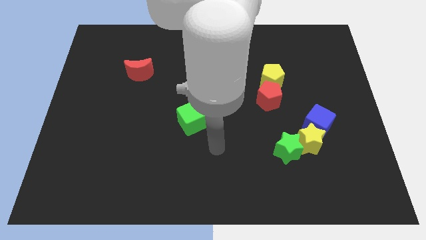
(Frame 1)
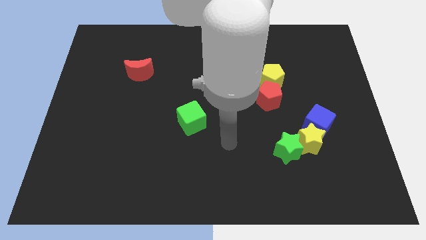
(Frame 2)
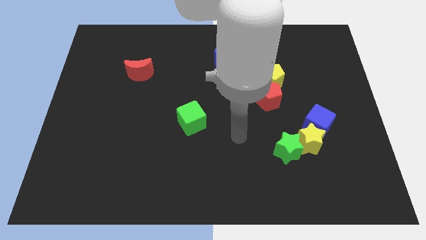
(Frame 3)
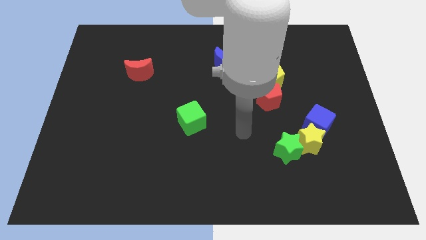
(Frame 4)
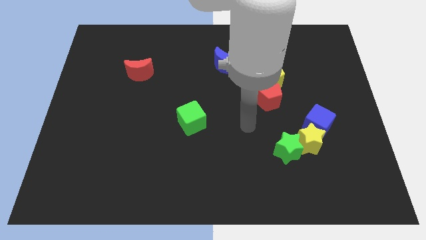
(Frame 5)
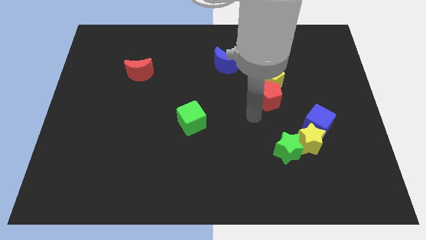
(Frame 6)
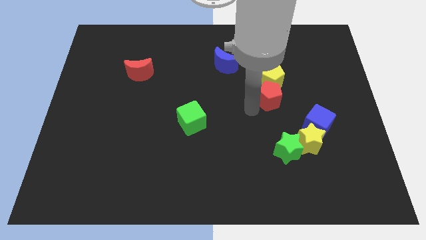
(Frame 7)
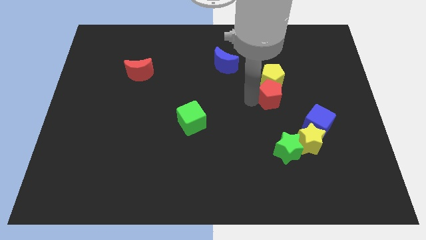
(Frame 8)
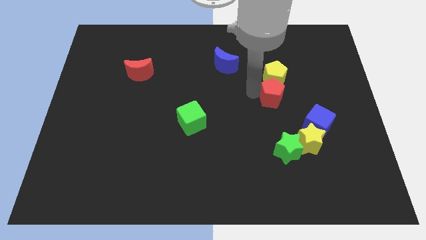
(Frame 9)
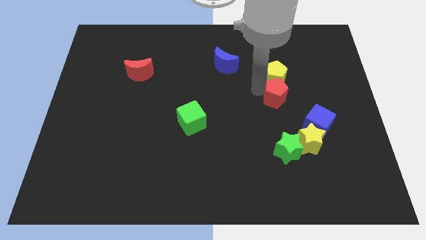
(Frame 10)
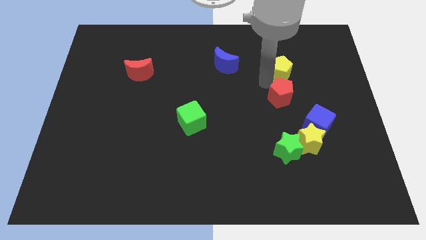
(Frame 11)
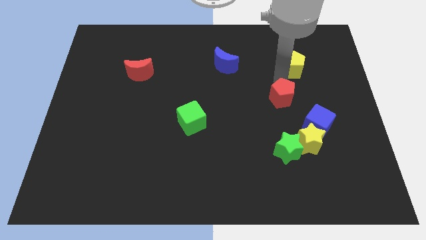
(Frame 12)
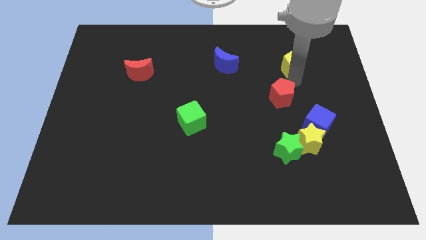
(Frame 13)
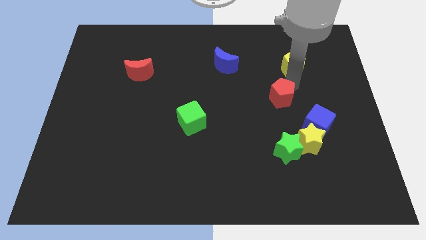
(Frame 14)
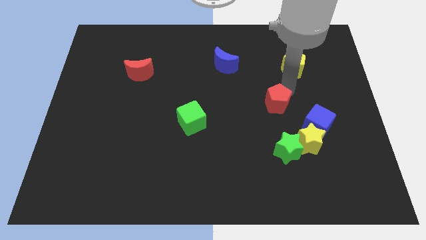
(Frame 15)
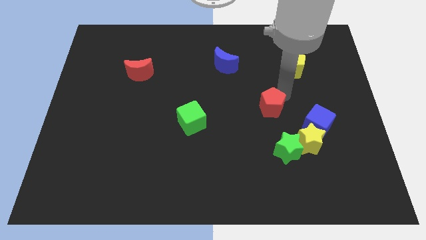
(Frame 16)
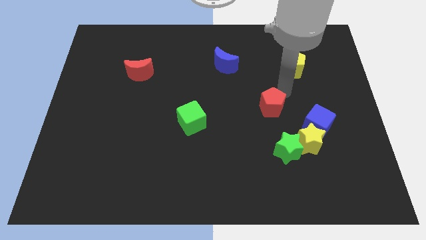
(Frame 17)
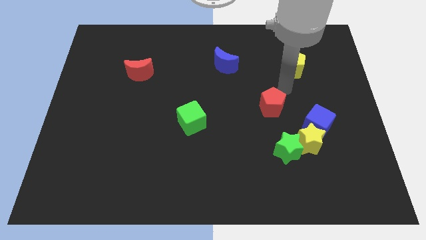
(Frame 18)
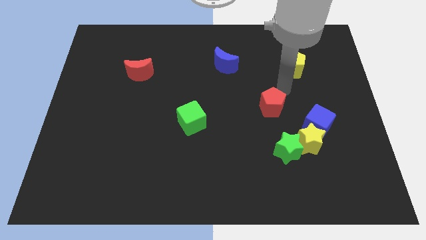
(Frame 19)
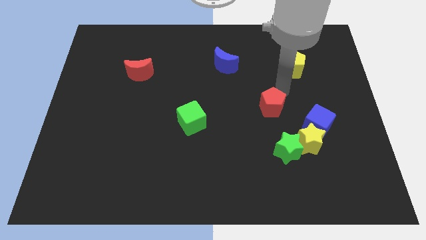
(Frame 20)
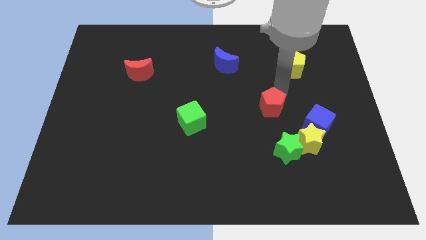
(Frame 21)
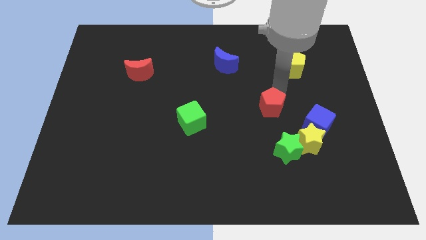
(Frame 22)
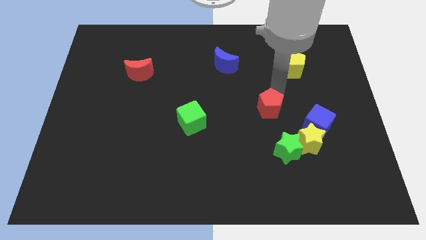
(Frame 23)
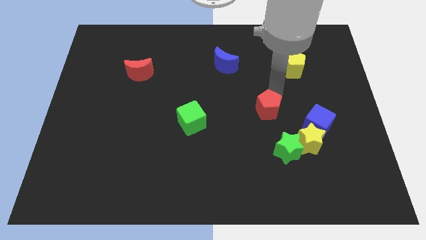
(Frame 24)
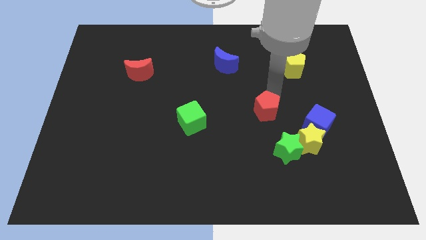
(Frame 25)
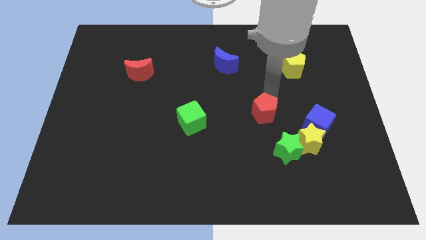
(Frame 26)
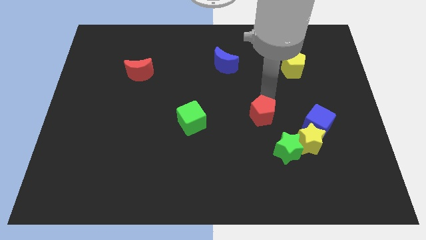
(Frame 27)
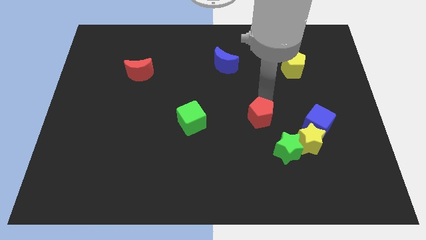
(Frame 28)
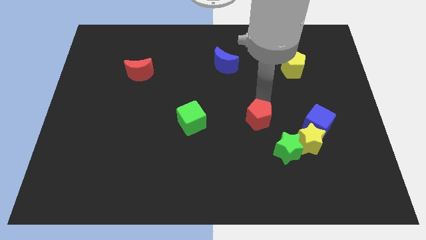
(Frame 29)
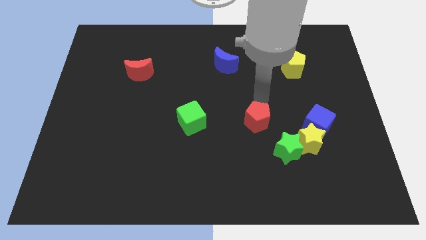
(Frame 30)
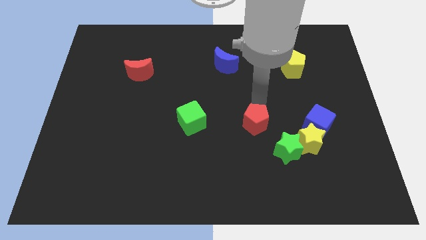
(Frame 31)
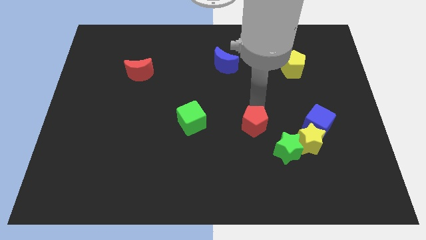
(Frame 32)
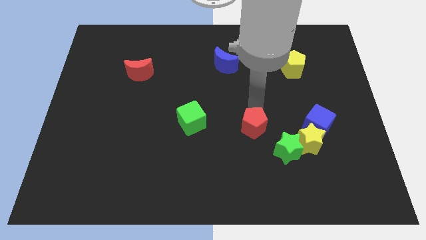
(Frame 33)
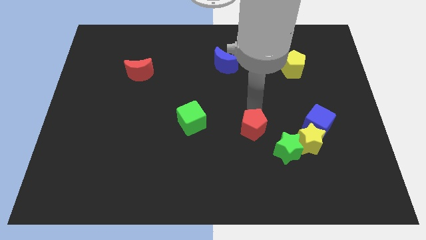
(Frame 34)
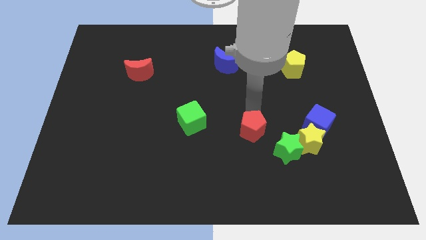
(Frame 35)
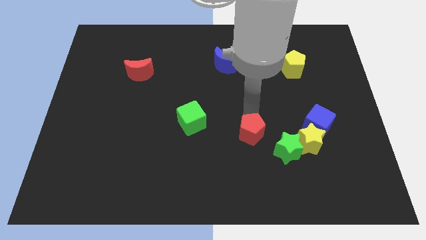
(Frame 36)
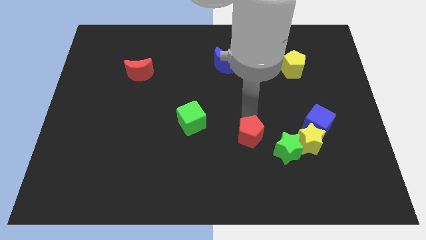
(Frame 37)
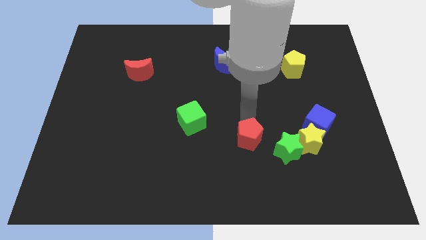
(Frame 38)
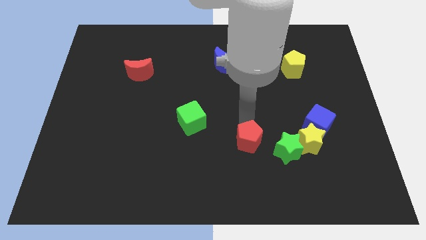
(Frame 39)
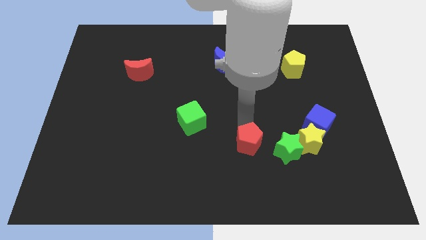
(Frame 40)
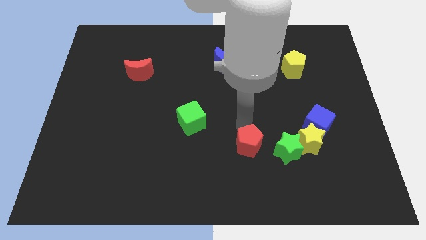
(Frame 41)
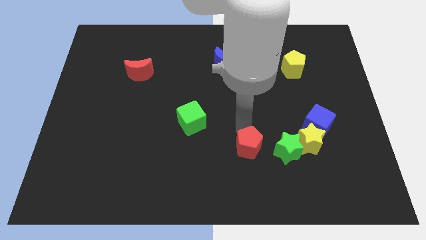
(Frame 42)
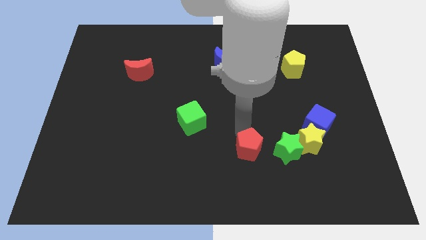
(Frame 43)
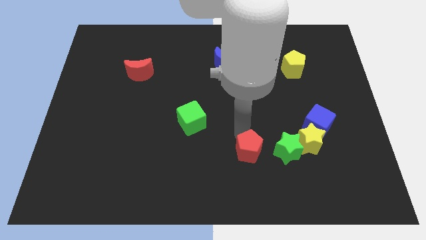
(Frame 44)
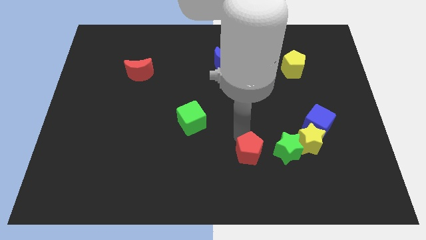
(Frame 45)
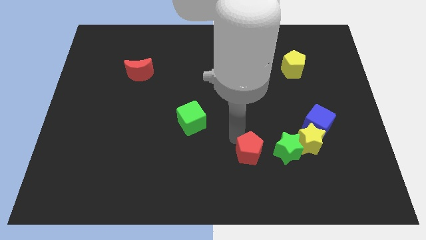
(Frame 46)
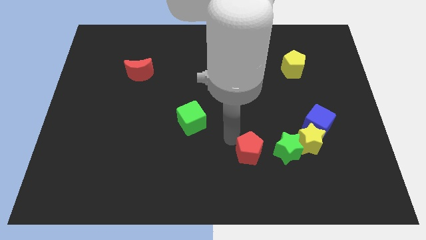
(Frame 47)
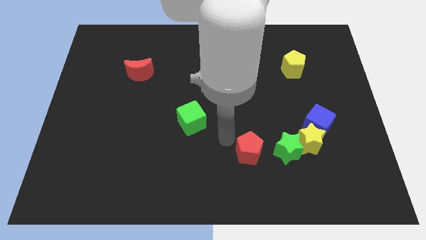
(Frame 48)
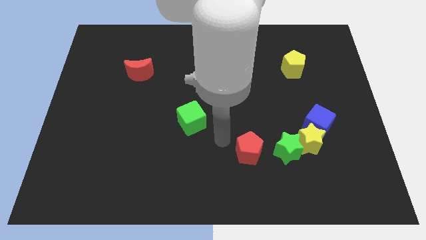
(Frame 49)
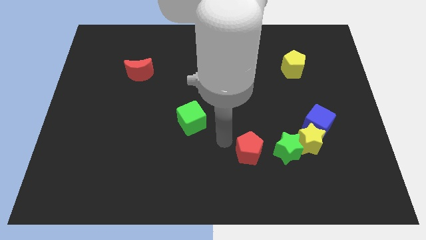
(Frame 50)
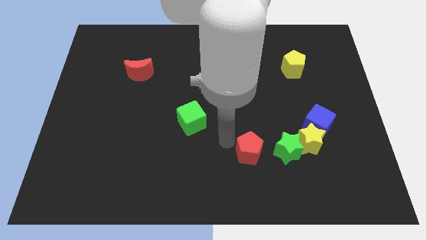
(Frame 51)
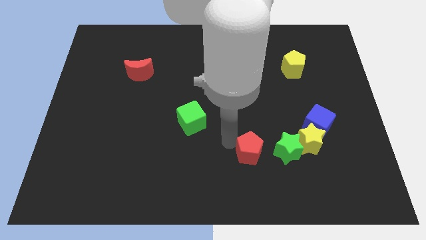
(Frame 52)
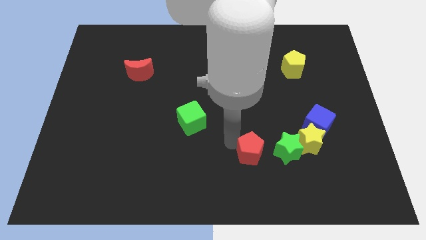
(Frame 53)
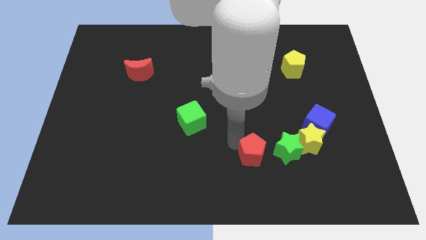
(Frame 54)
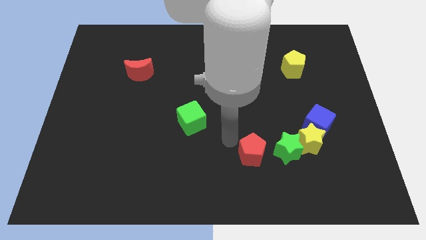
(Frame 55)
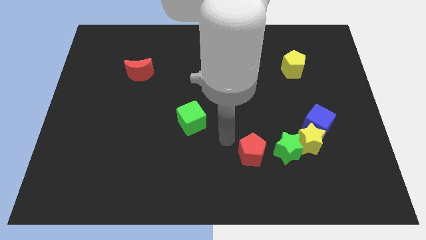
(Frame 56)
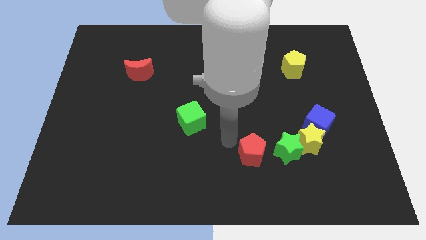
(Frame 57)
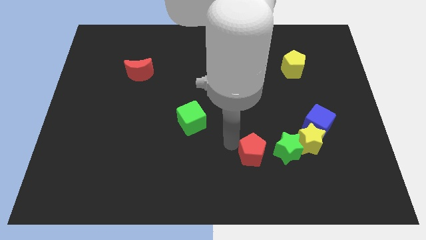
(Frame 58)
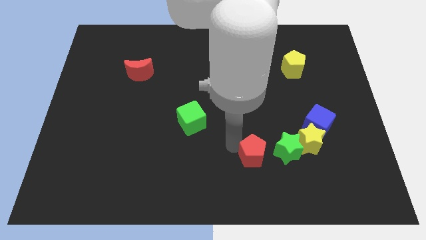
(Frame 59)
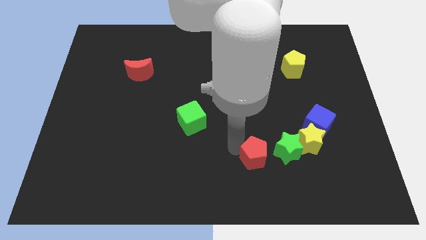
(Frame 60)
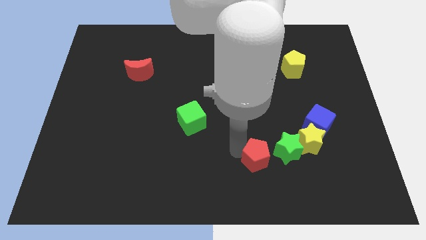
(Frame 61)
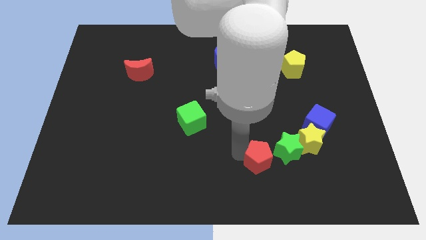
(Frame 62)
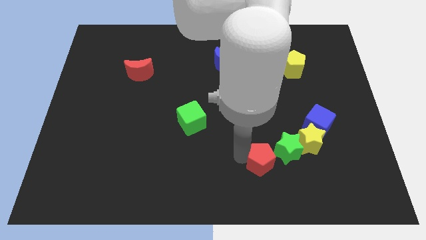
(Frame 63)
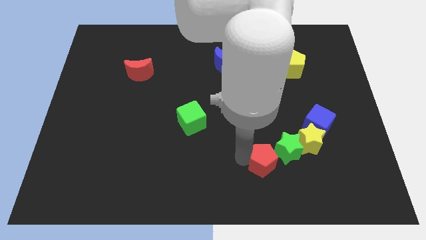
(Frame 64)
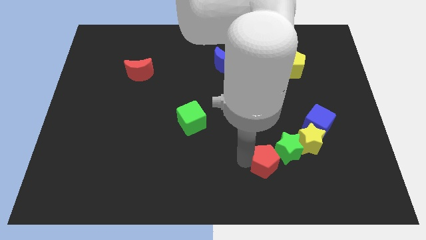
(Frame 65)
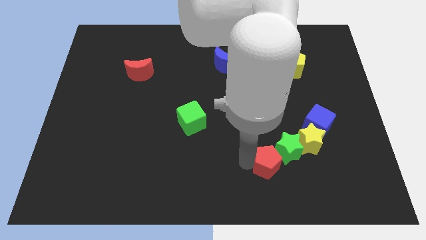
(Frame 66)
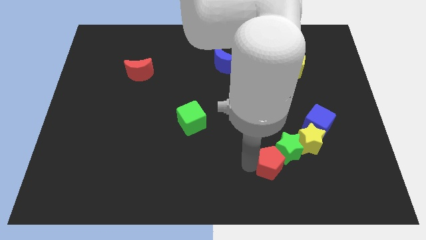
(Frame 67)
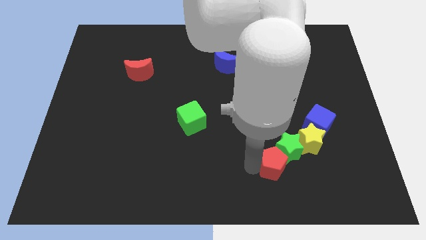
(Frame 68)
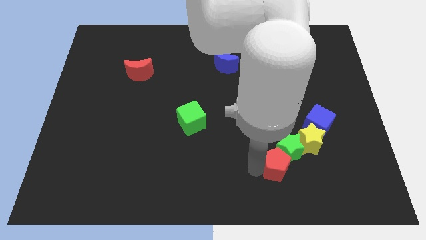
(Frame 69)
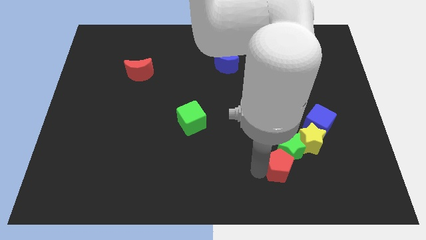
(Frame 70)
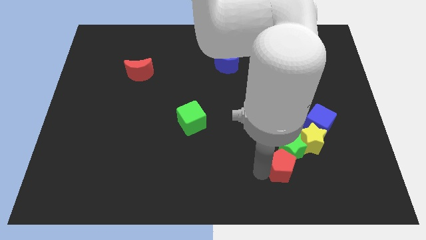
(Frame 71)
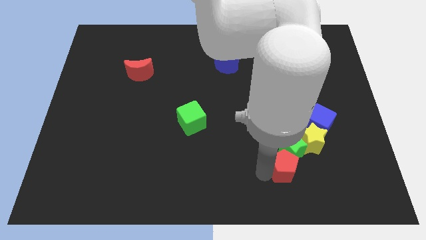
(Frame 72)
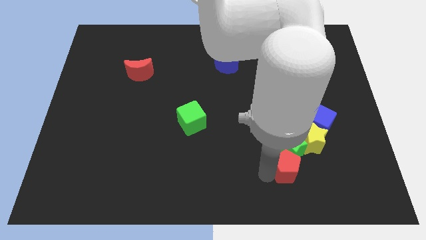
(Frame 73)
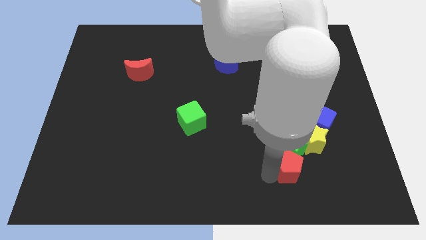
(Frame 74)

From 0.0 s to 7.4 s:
push the red pentagon diagonally downwards and right a bit

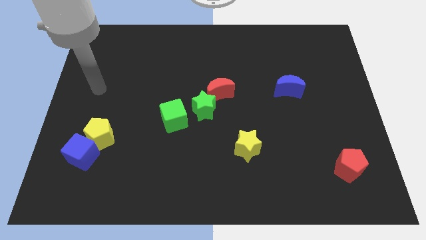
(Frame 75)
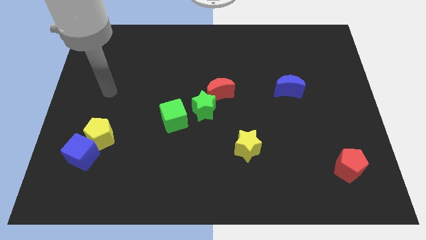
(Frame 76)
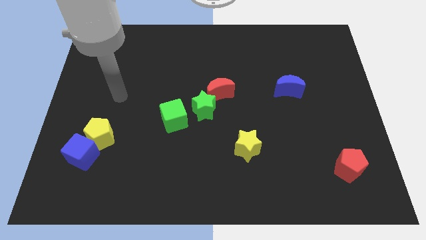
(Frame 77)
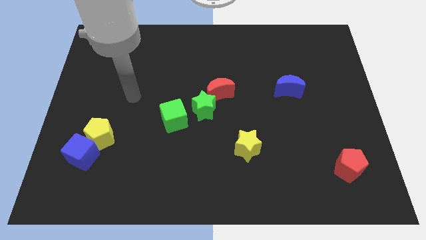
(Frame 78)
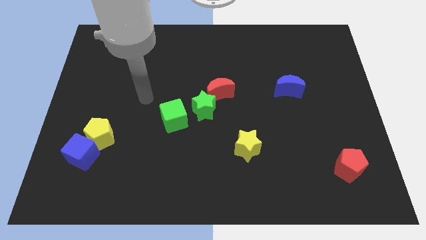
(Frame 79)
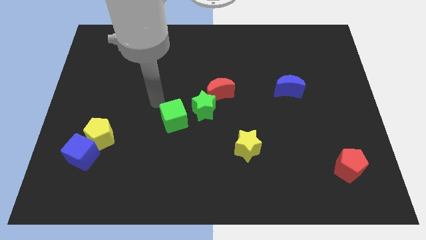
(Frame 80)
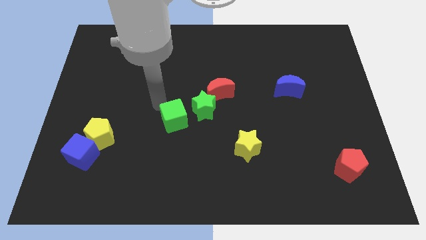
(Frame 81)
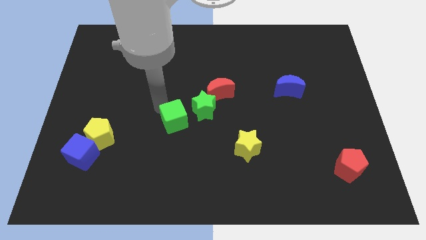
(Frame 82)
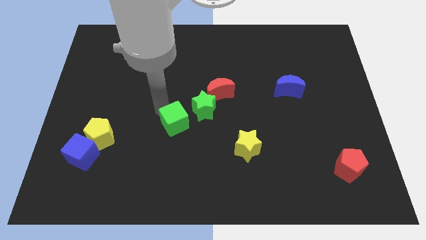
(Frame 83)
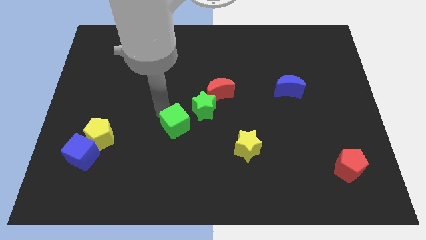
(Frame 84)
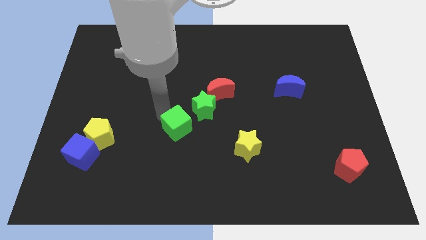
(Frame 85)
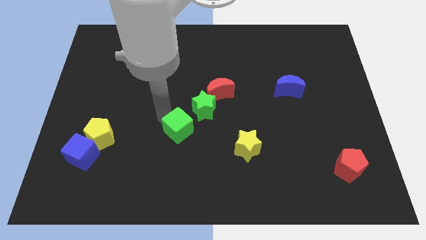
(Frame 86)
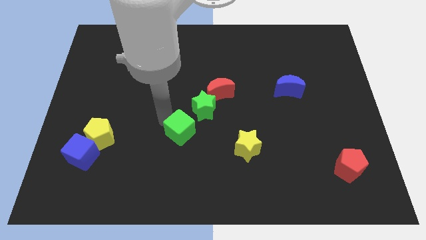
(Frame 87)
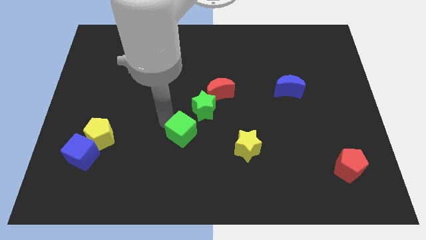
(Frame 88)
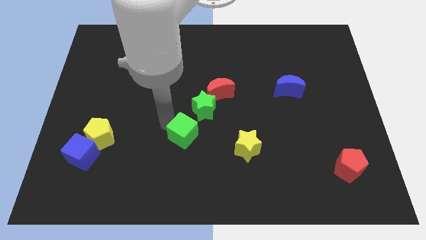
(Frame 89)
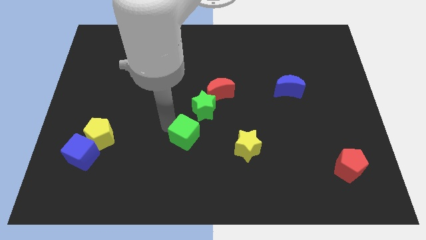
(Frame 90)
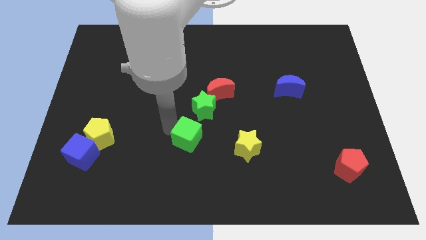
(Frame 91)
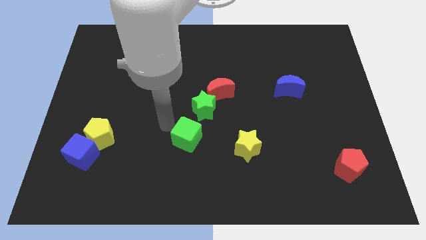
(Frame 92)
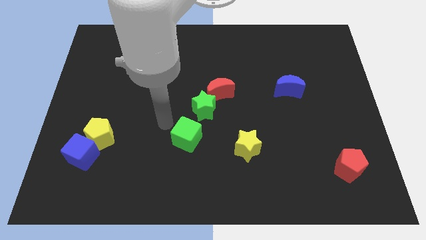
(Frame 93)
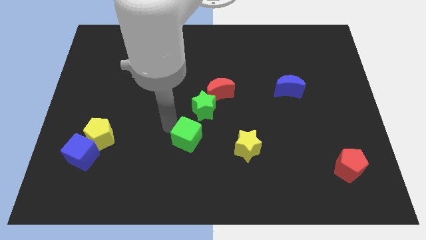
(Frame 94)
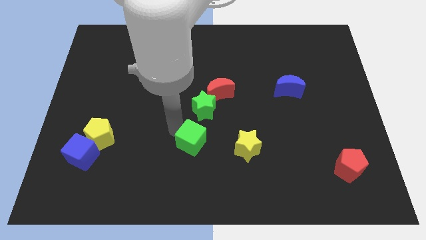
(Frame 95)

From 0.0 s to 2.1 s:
push the green cube a little downwards and then to the right
